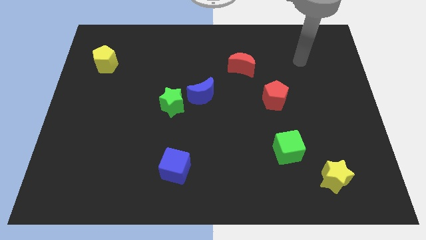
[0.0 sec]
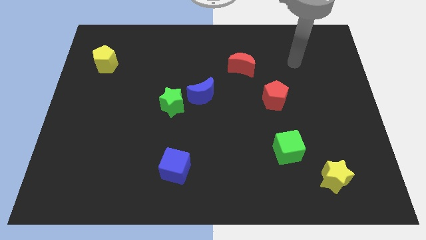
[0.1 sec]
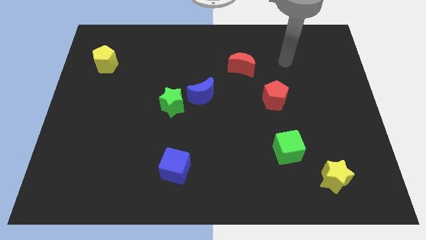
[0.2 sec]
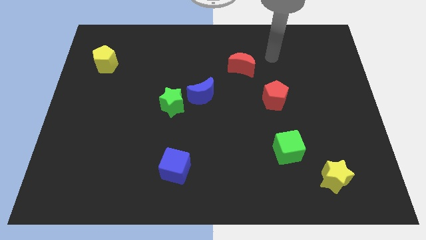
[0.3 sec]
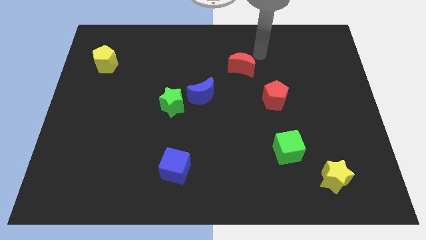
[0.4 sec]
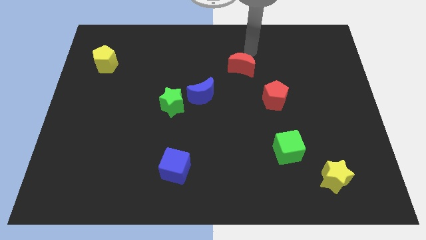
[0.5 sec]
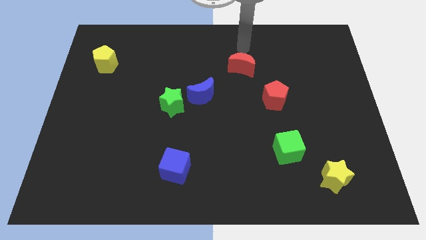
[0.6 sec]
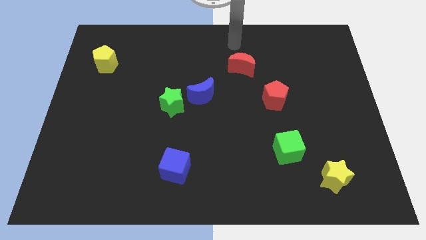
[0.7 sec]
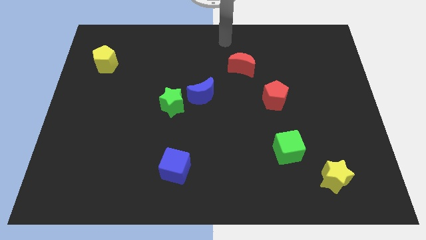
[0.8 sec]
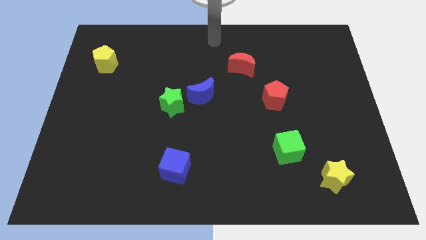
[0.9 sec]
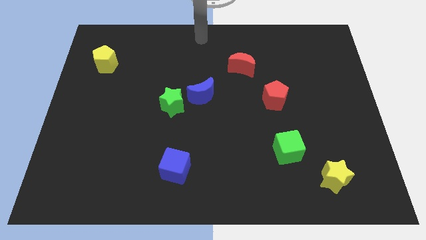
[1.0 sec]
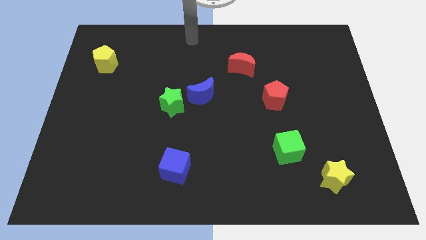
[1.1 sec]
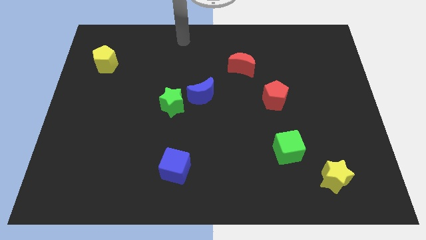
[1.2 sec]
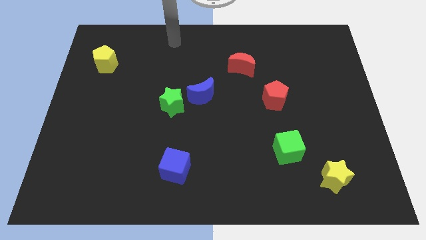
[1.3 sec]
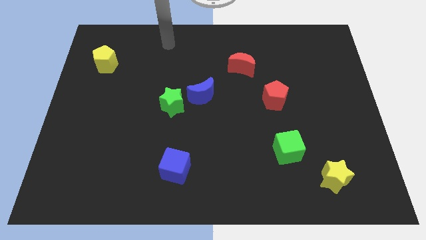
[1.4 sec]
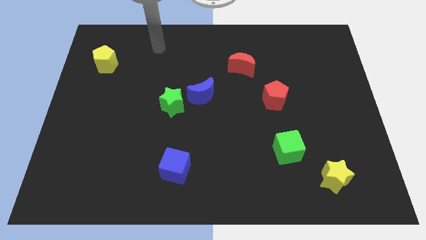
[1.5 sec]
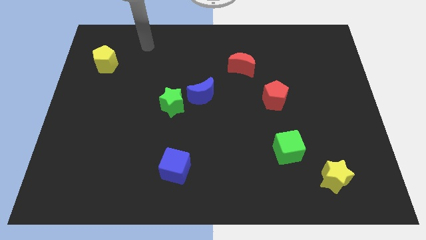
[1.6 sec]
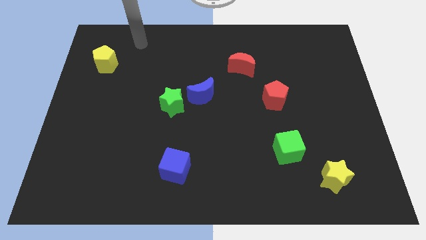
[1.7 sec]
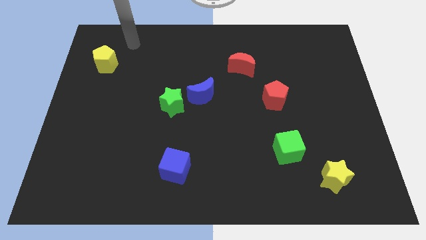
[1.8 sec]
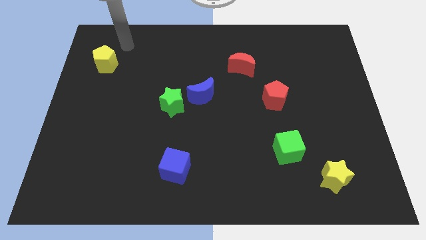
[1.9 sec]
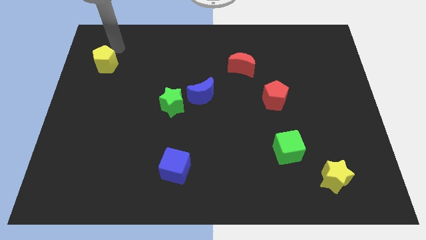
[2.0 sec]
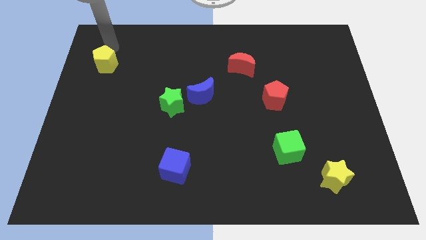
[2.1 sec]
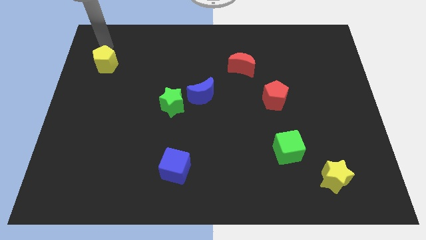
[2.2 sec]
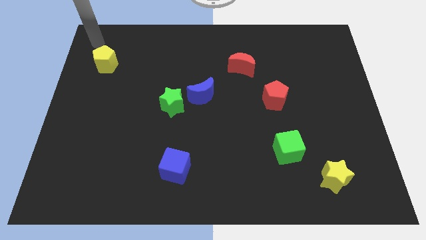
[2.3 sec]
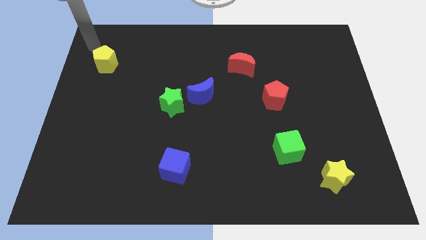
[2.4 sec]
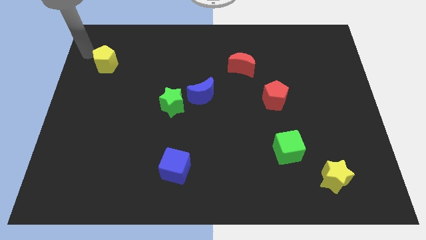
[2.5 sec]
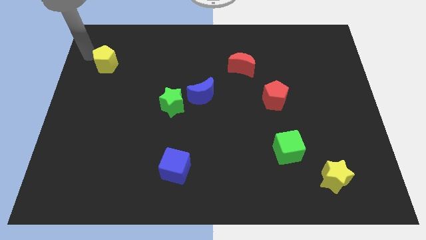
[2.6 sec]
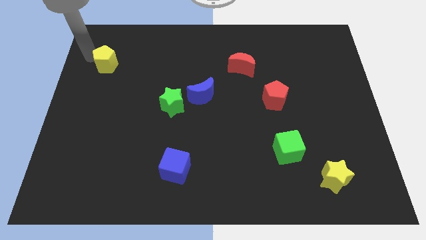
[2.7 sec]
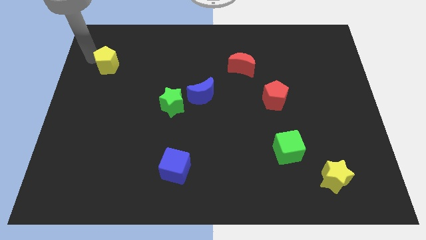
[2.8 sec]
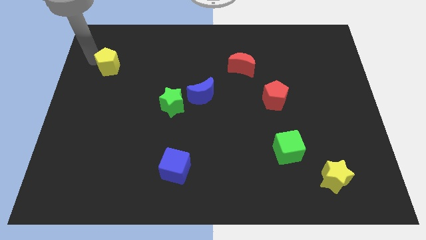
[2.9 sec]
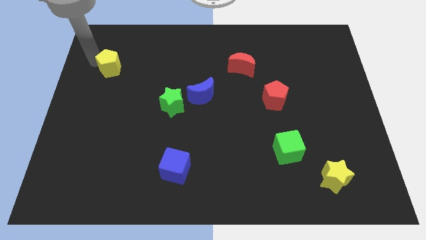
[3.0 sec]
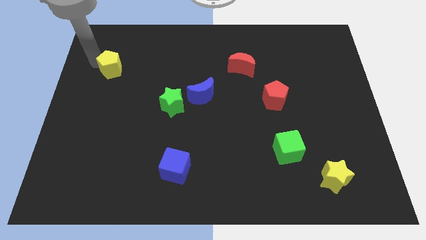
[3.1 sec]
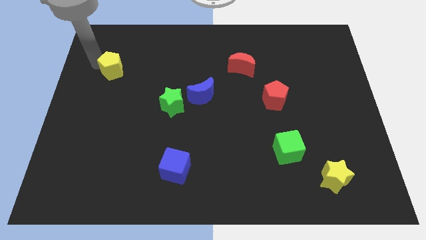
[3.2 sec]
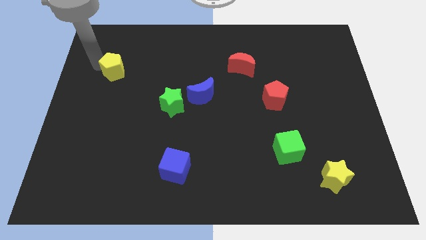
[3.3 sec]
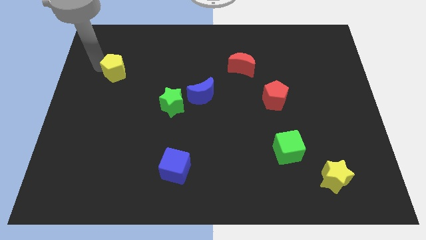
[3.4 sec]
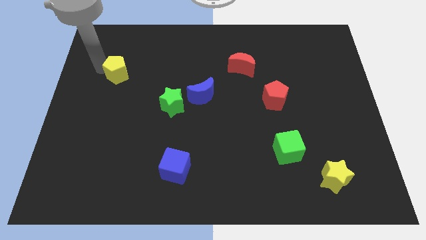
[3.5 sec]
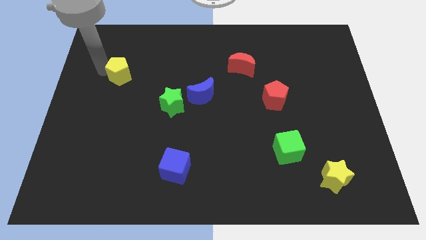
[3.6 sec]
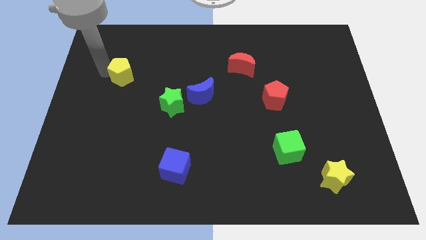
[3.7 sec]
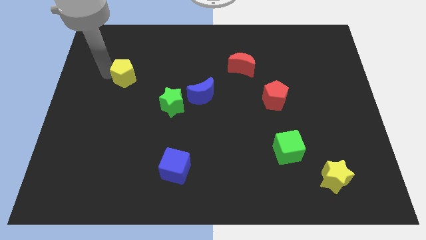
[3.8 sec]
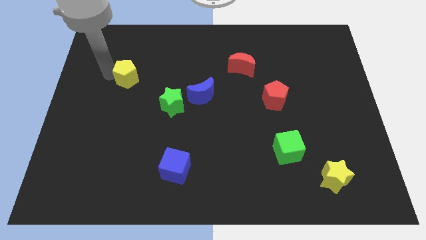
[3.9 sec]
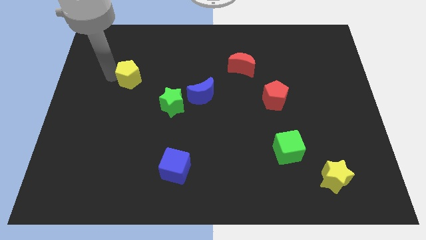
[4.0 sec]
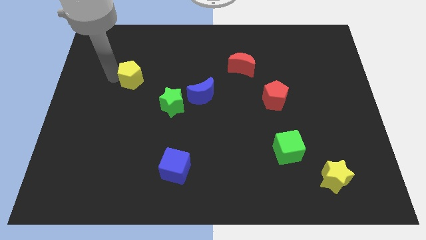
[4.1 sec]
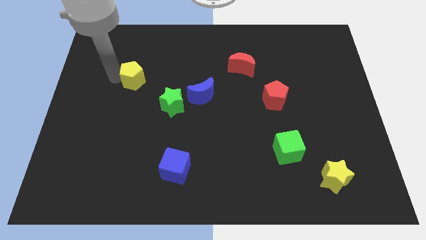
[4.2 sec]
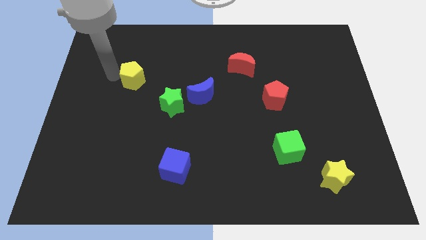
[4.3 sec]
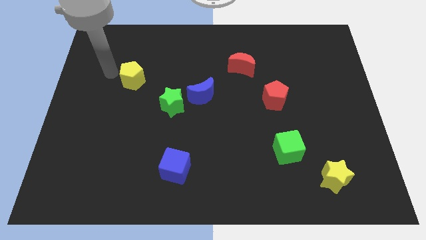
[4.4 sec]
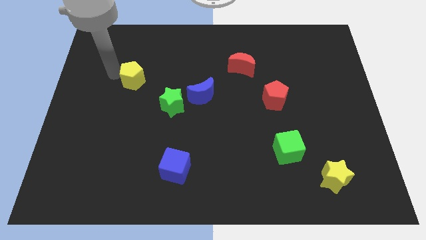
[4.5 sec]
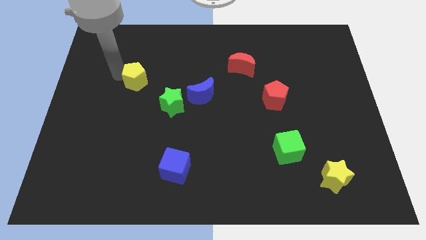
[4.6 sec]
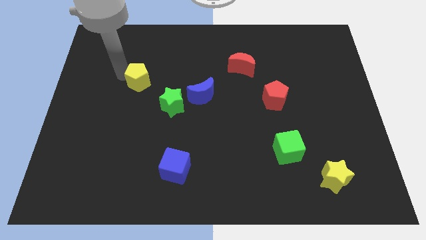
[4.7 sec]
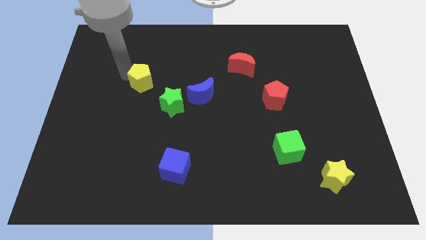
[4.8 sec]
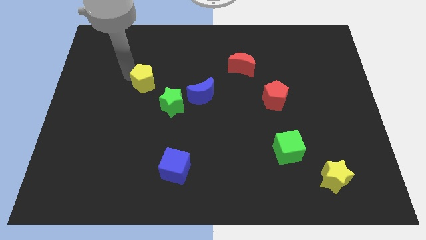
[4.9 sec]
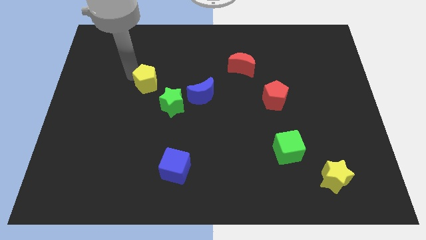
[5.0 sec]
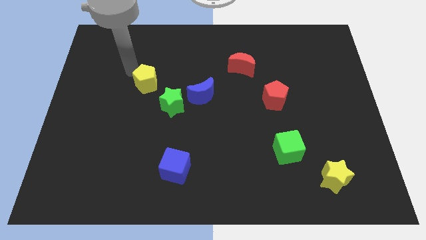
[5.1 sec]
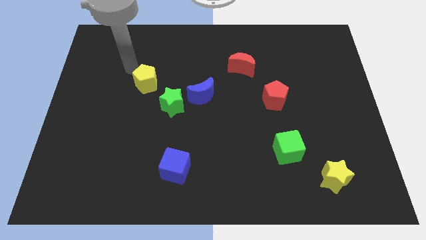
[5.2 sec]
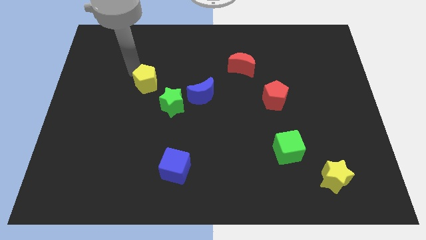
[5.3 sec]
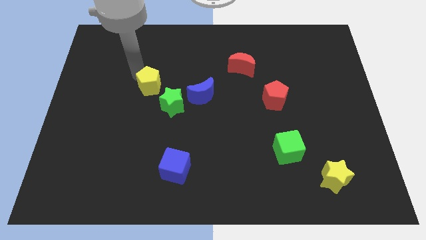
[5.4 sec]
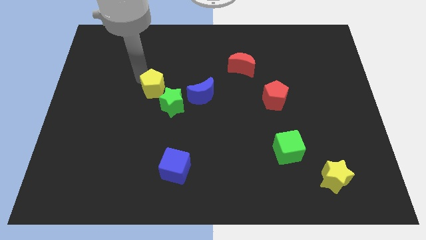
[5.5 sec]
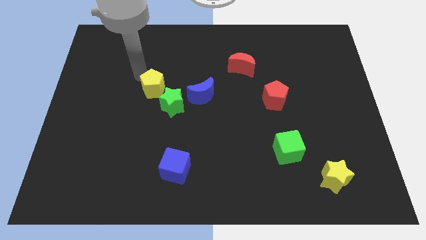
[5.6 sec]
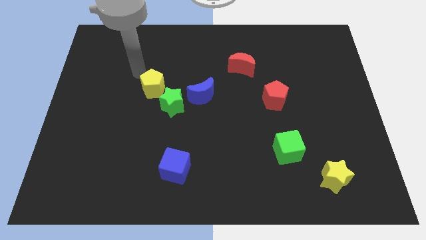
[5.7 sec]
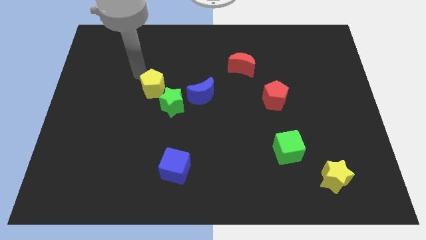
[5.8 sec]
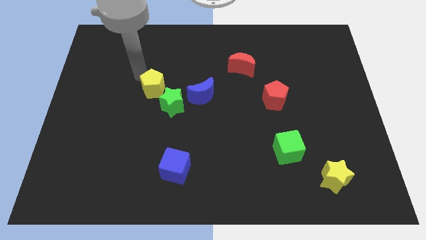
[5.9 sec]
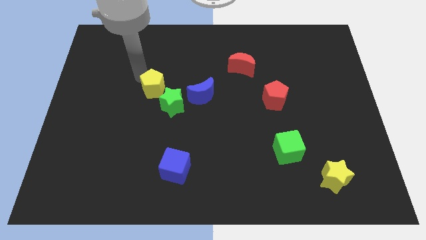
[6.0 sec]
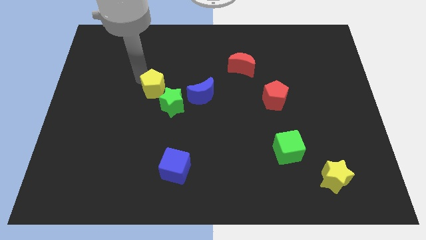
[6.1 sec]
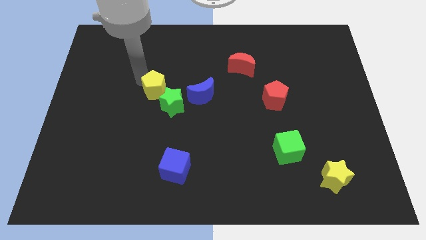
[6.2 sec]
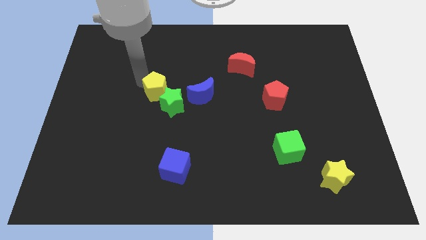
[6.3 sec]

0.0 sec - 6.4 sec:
push the yellow pentagon towards the green star

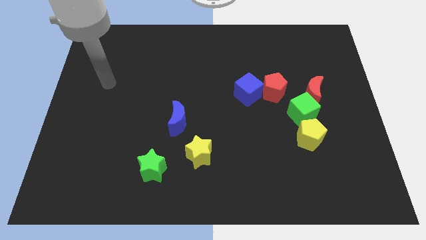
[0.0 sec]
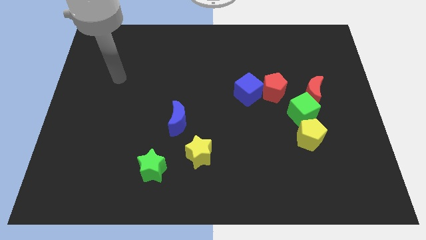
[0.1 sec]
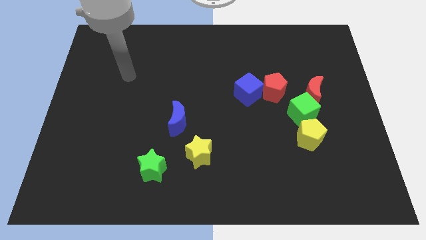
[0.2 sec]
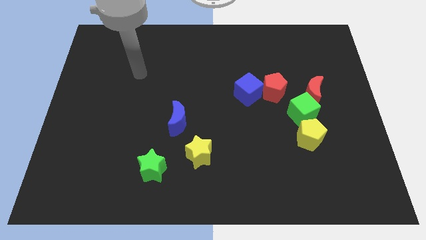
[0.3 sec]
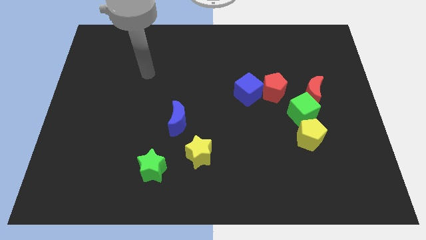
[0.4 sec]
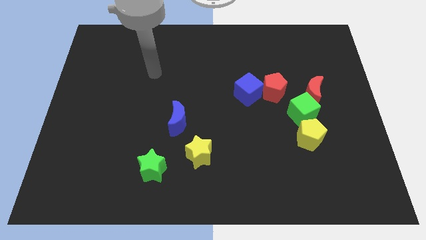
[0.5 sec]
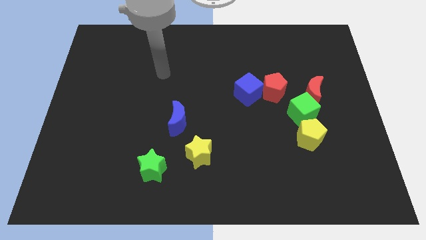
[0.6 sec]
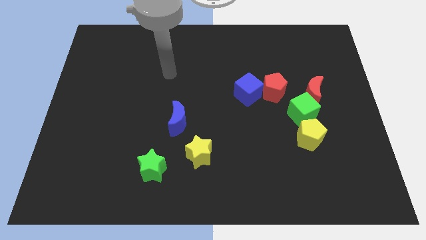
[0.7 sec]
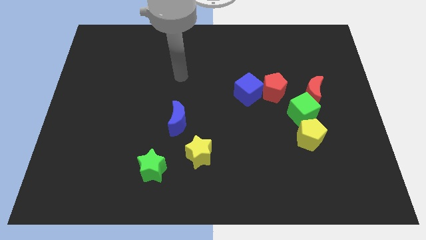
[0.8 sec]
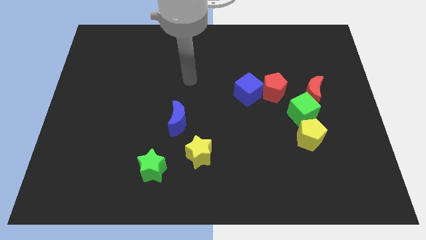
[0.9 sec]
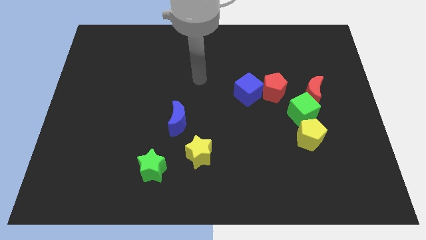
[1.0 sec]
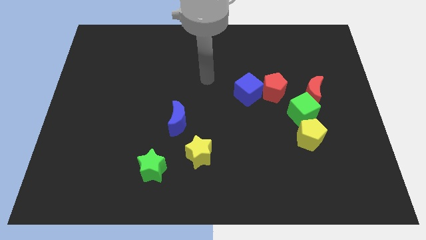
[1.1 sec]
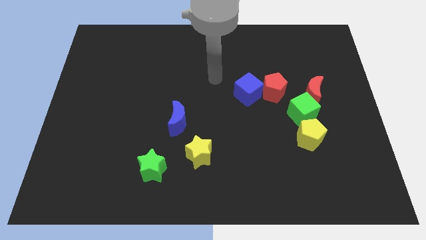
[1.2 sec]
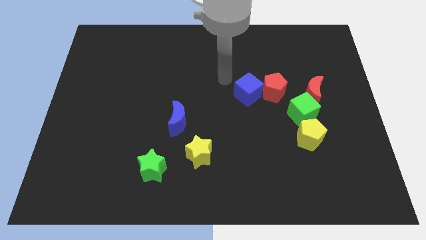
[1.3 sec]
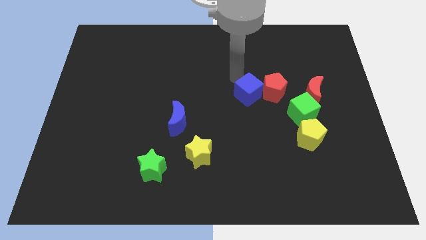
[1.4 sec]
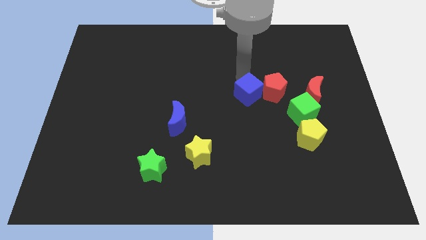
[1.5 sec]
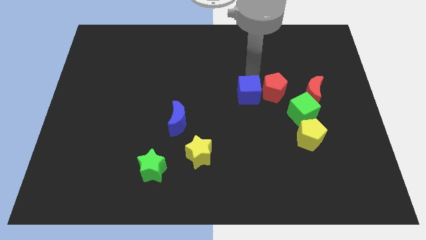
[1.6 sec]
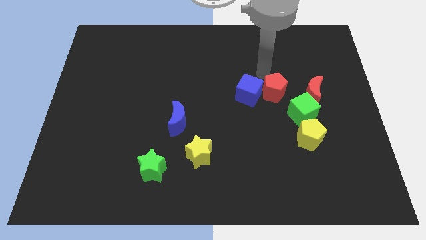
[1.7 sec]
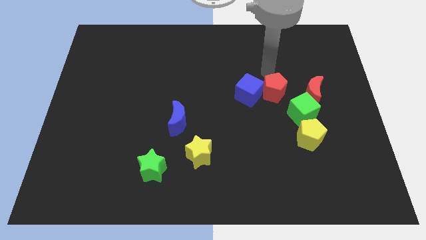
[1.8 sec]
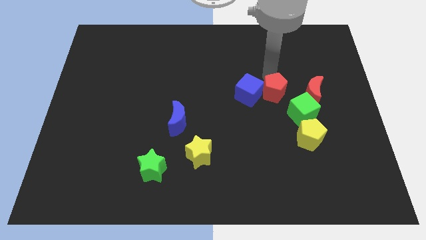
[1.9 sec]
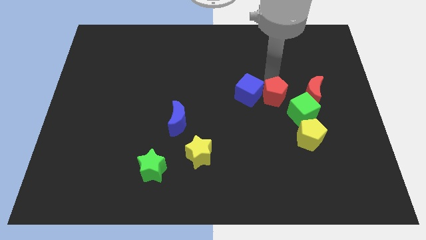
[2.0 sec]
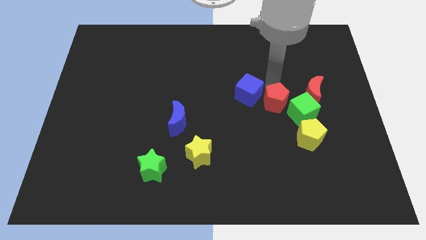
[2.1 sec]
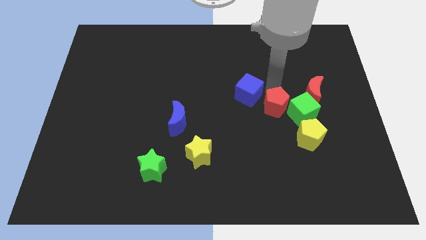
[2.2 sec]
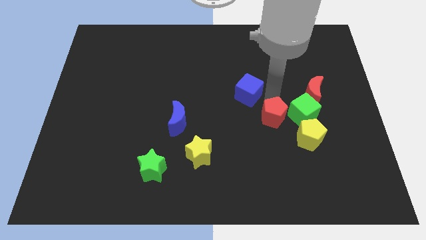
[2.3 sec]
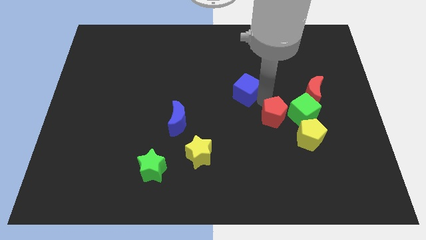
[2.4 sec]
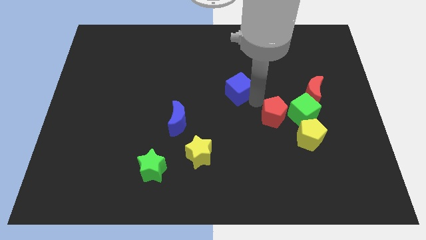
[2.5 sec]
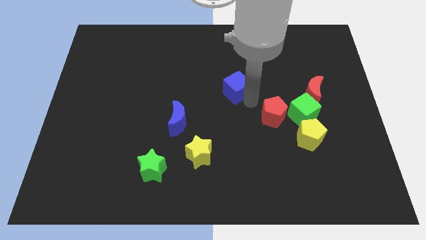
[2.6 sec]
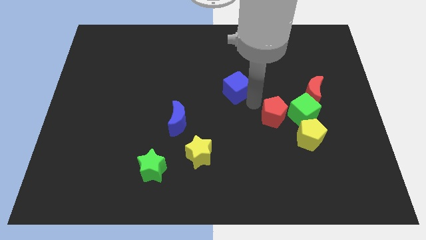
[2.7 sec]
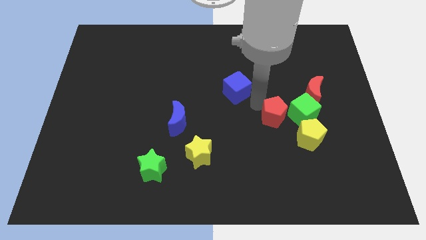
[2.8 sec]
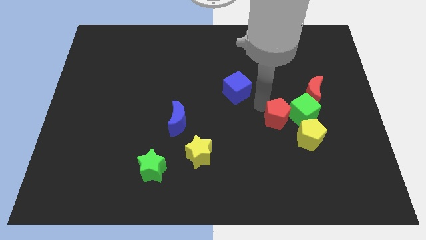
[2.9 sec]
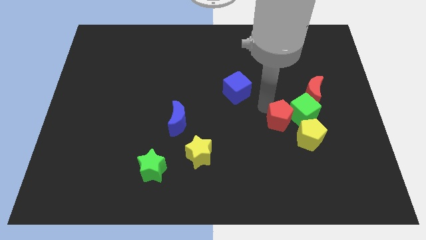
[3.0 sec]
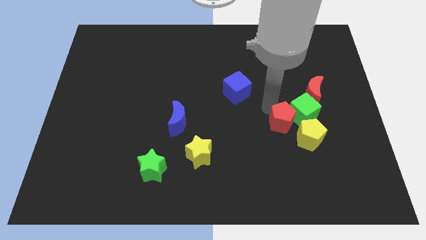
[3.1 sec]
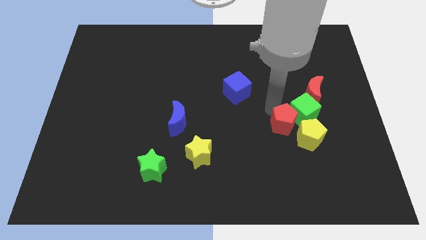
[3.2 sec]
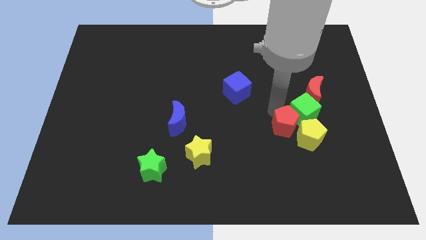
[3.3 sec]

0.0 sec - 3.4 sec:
put the red pentagon next to the yellow pentagon
